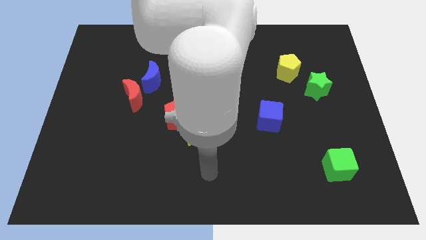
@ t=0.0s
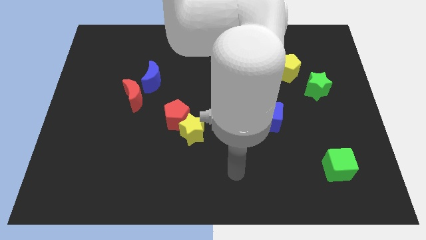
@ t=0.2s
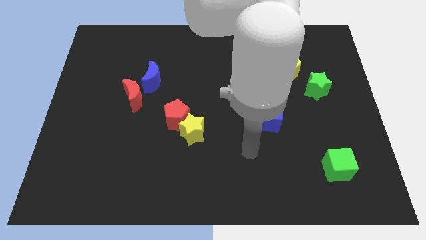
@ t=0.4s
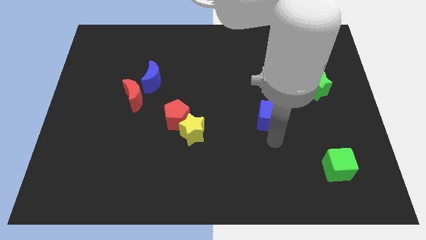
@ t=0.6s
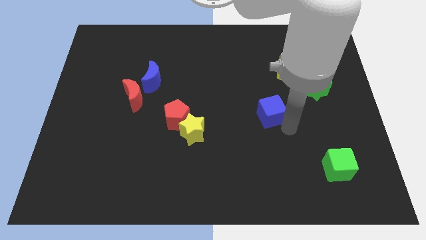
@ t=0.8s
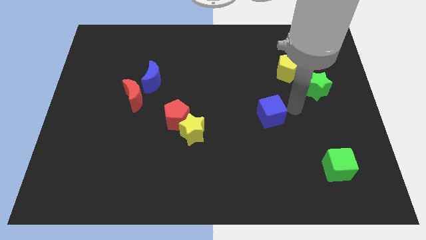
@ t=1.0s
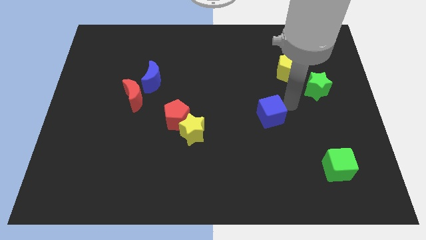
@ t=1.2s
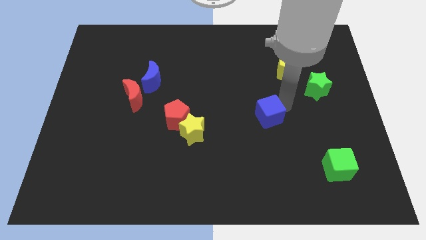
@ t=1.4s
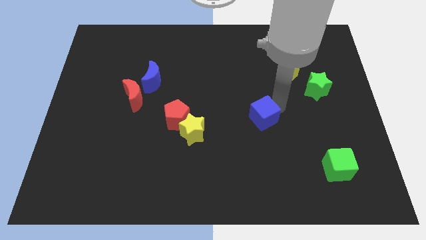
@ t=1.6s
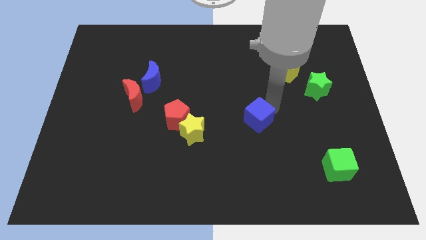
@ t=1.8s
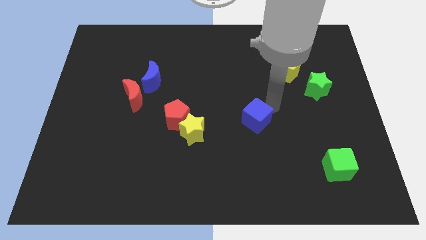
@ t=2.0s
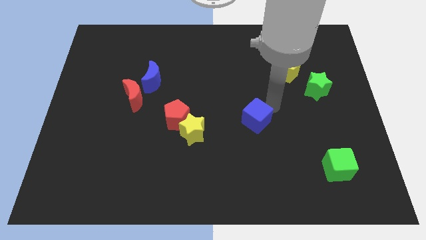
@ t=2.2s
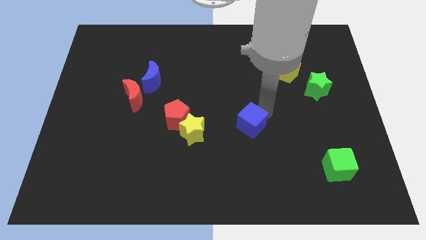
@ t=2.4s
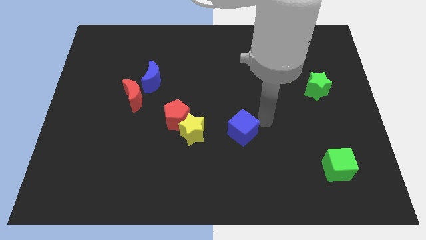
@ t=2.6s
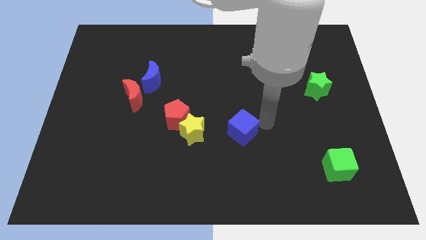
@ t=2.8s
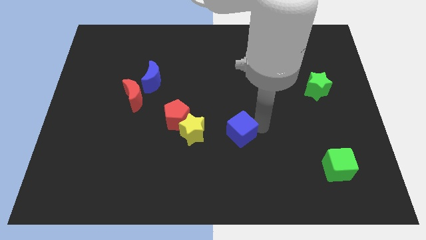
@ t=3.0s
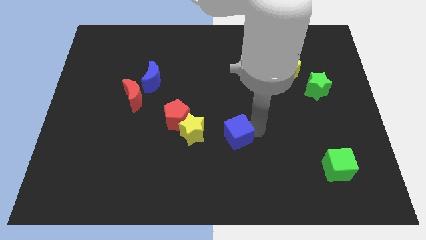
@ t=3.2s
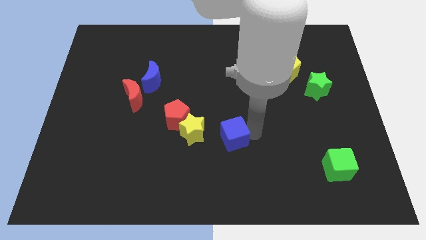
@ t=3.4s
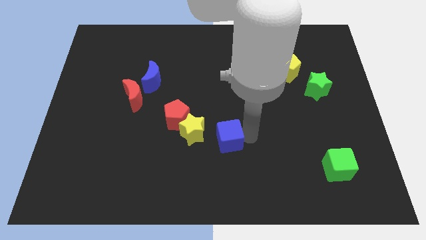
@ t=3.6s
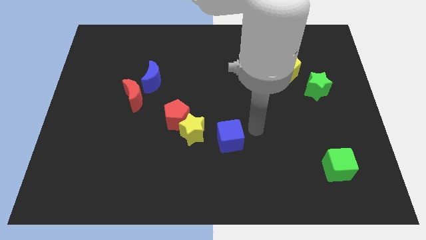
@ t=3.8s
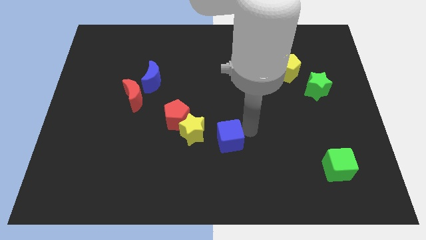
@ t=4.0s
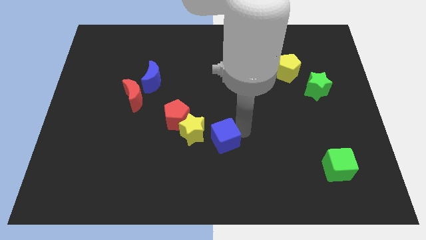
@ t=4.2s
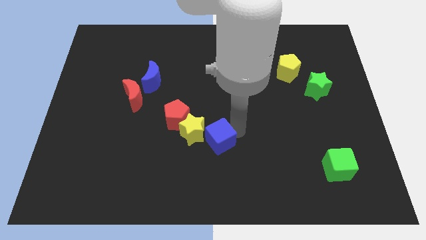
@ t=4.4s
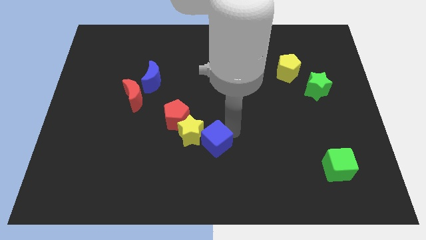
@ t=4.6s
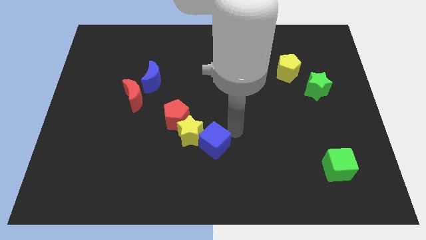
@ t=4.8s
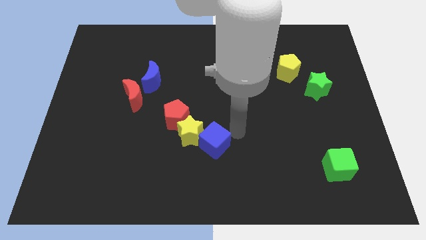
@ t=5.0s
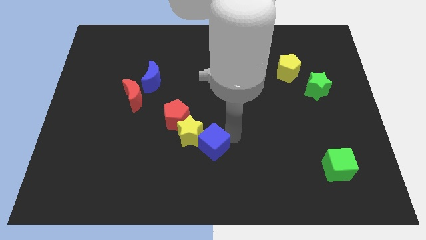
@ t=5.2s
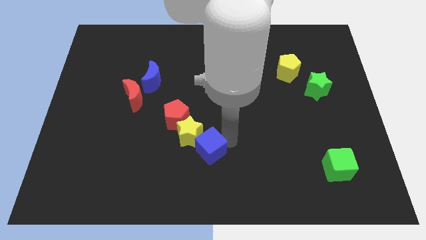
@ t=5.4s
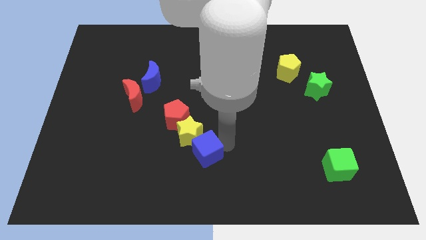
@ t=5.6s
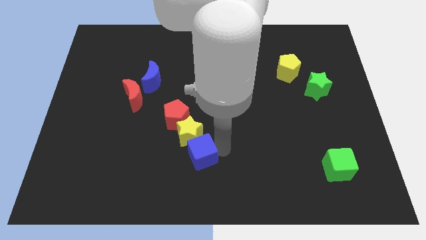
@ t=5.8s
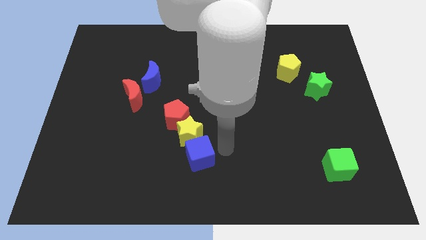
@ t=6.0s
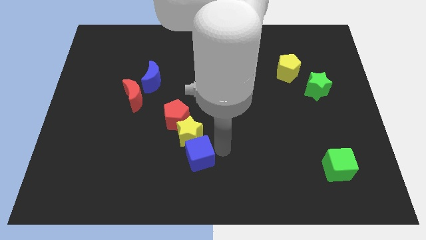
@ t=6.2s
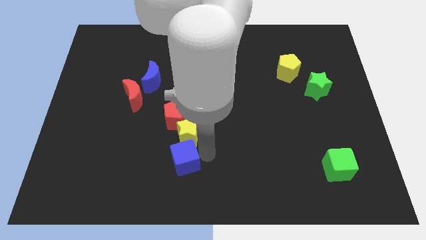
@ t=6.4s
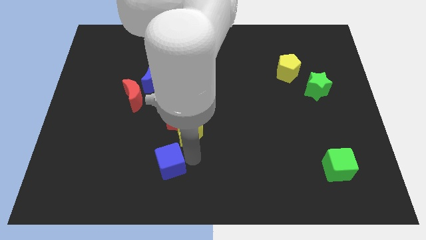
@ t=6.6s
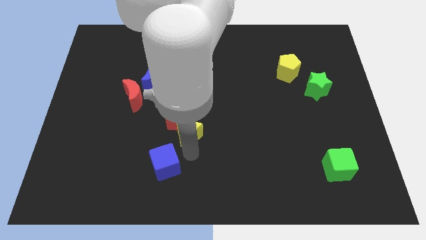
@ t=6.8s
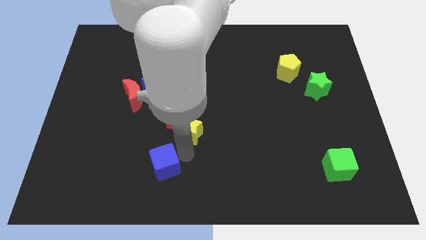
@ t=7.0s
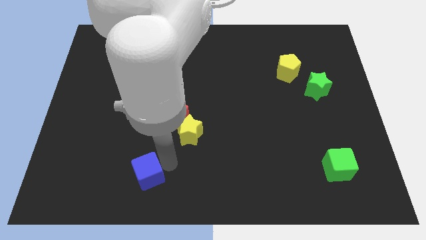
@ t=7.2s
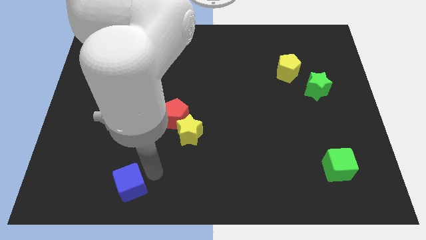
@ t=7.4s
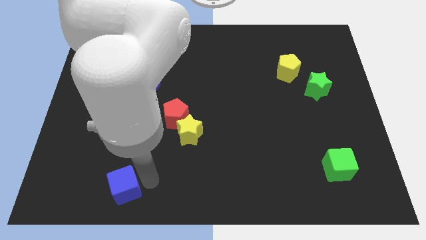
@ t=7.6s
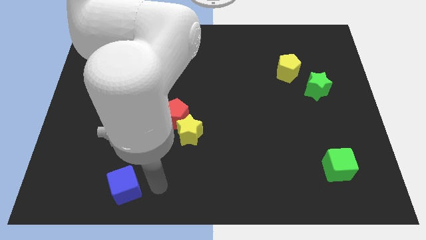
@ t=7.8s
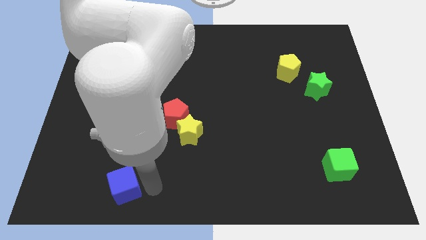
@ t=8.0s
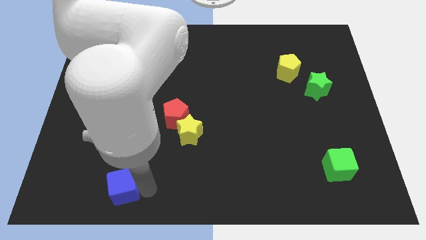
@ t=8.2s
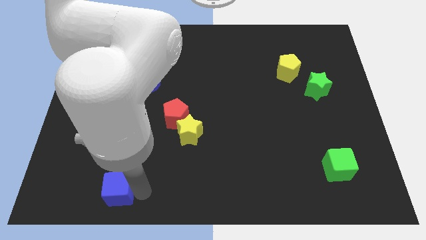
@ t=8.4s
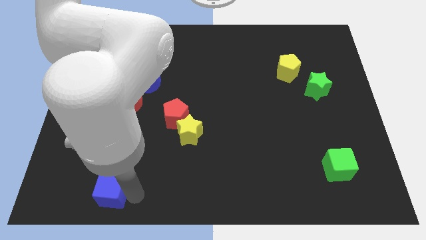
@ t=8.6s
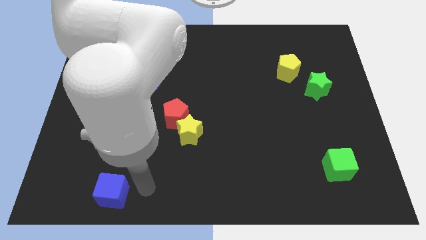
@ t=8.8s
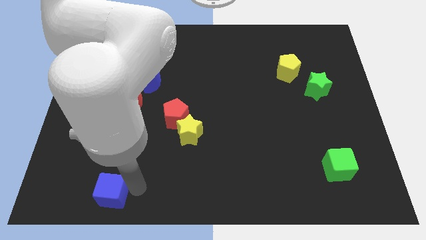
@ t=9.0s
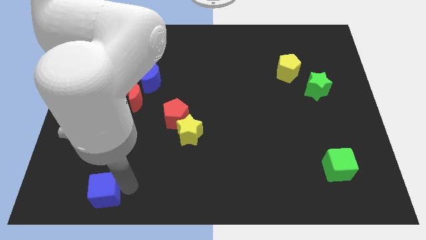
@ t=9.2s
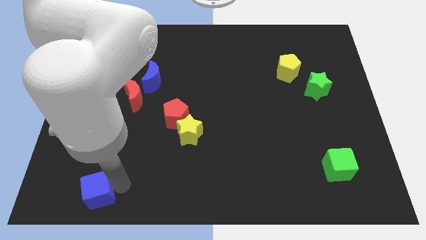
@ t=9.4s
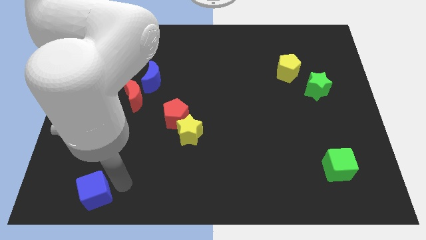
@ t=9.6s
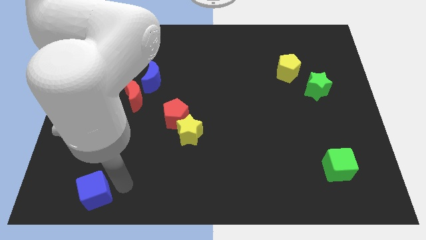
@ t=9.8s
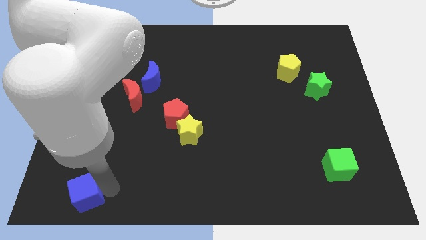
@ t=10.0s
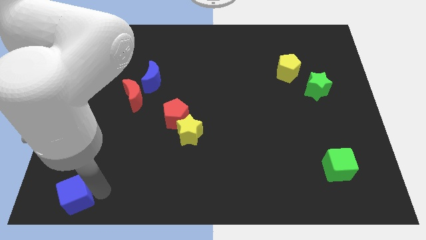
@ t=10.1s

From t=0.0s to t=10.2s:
slide the blue cube to the lower left corner

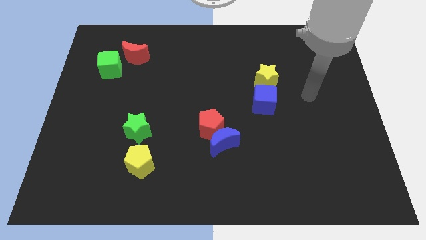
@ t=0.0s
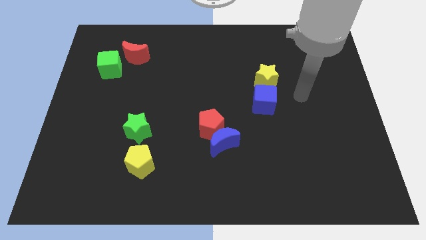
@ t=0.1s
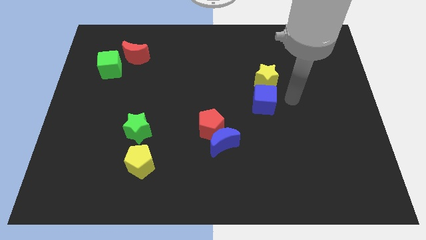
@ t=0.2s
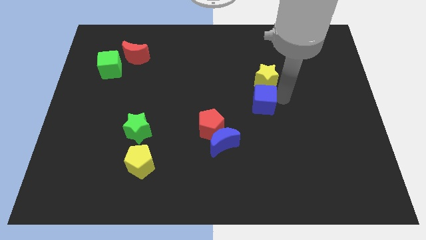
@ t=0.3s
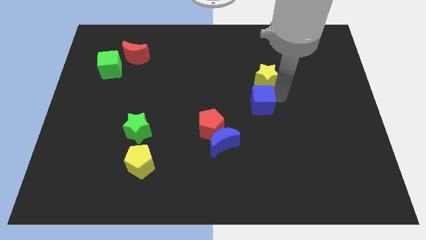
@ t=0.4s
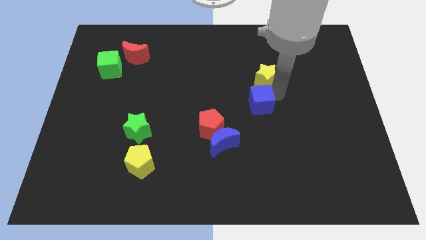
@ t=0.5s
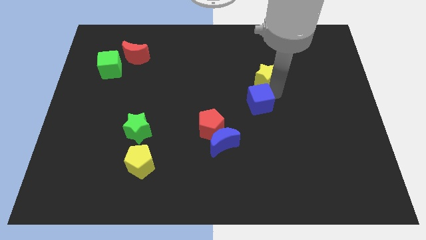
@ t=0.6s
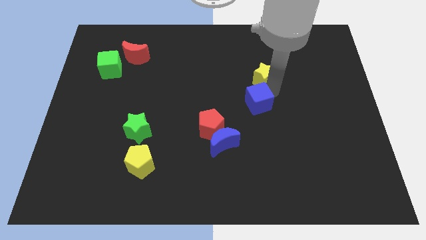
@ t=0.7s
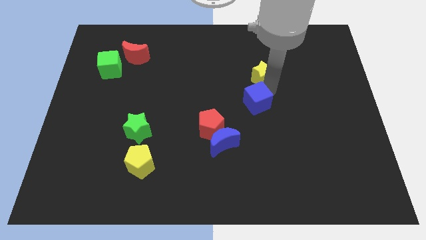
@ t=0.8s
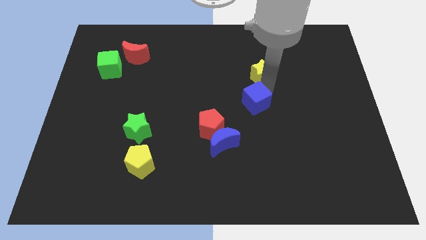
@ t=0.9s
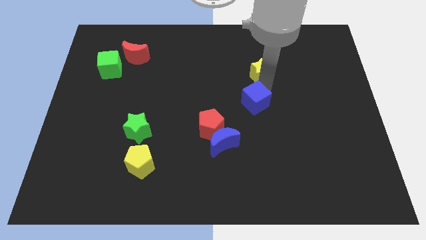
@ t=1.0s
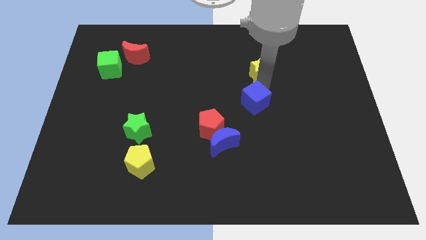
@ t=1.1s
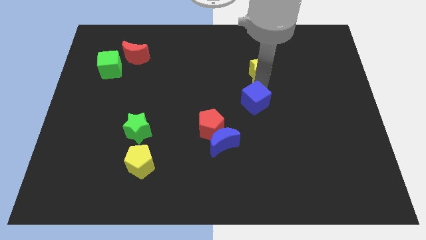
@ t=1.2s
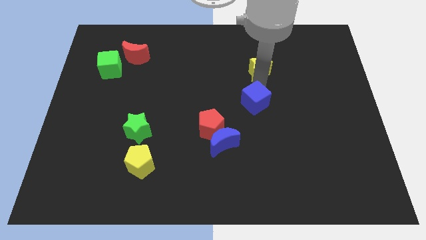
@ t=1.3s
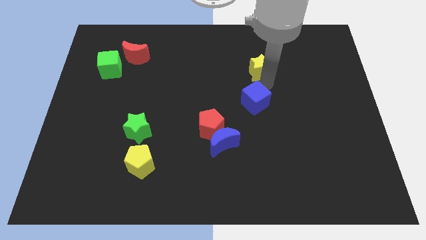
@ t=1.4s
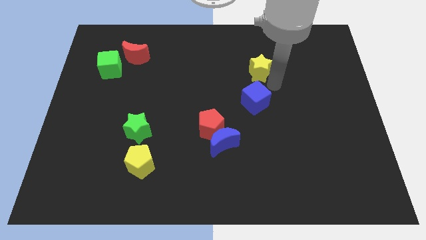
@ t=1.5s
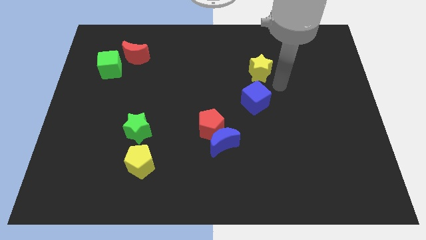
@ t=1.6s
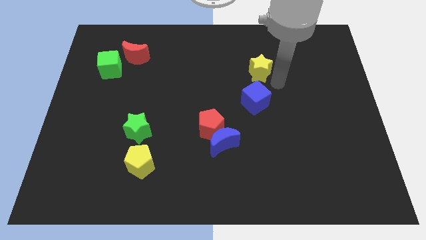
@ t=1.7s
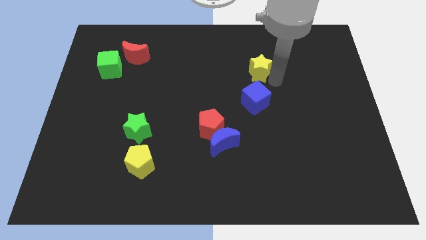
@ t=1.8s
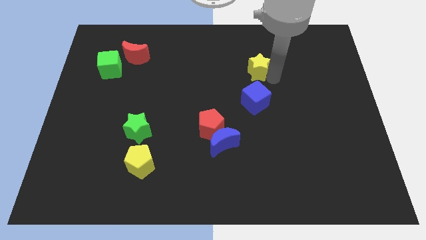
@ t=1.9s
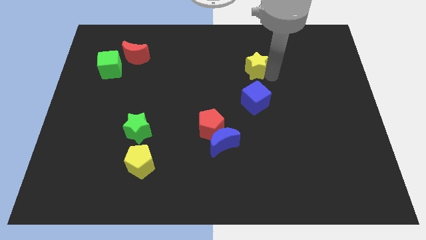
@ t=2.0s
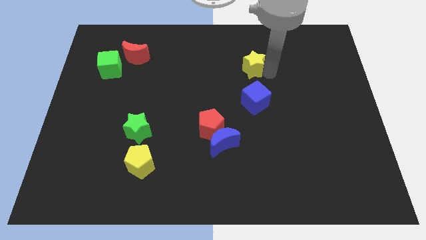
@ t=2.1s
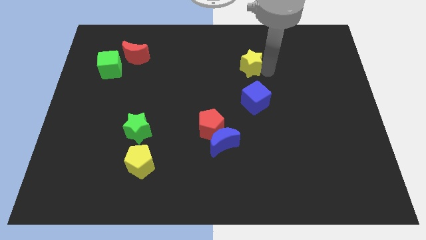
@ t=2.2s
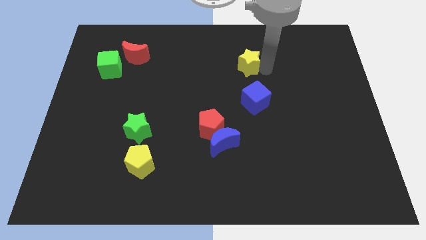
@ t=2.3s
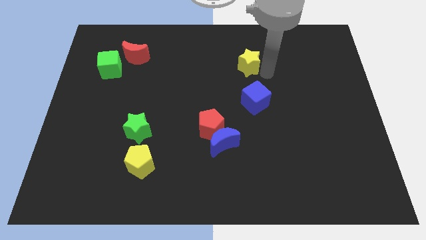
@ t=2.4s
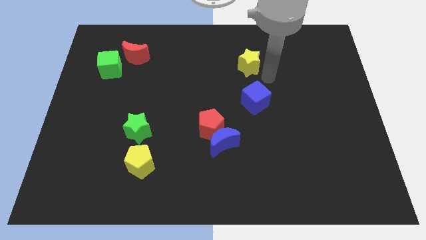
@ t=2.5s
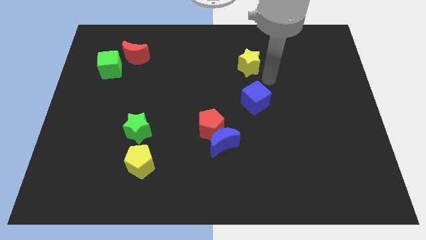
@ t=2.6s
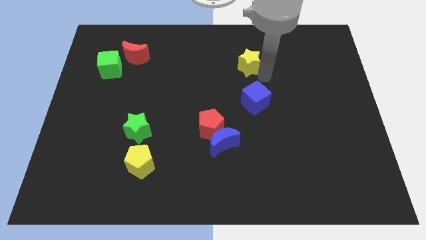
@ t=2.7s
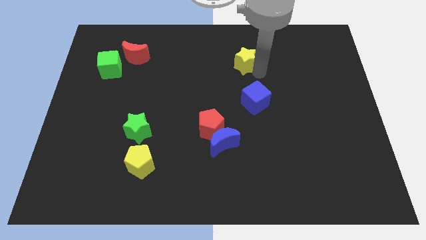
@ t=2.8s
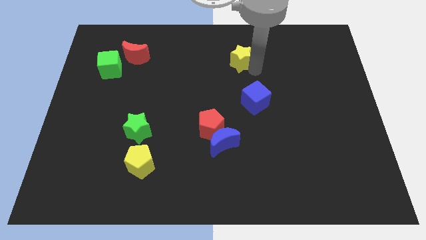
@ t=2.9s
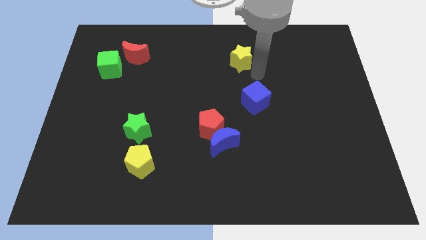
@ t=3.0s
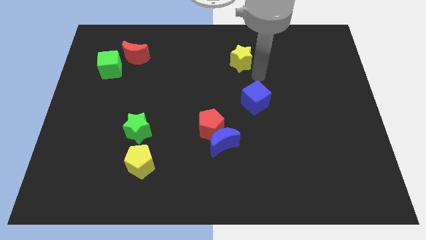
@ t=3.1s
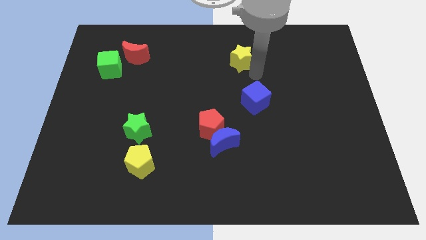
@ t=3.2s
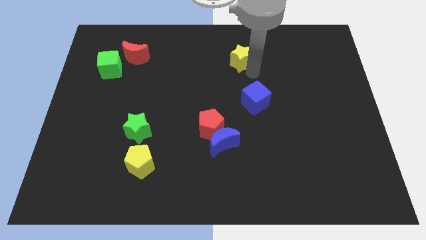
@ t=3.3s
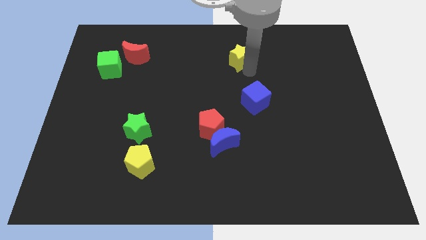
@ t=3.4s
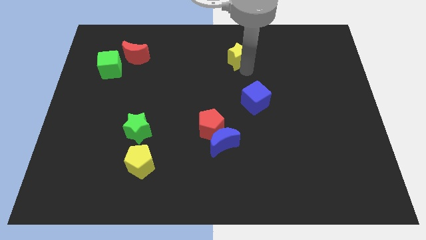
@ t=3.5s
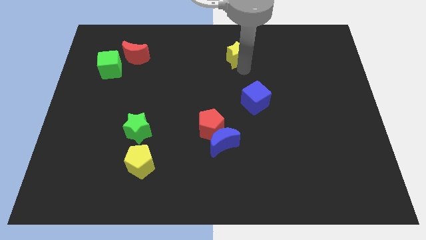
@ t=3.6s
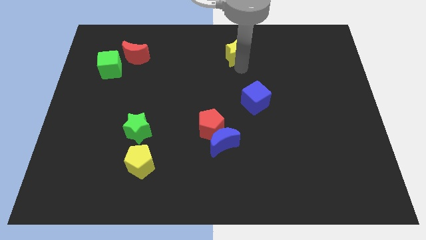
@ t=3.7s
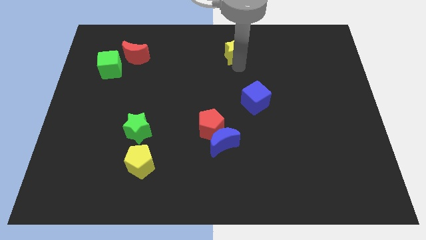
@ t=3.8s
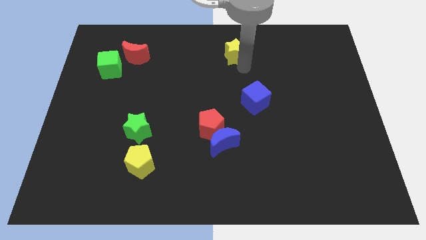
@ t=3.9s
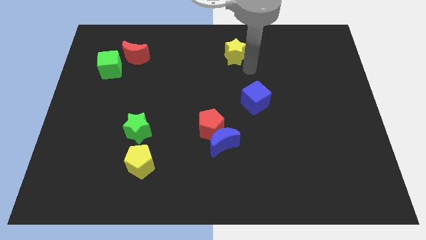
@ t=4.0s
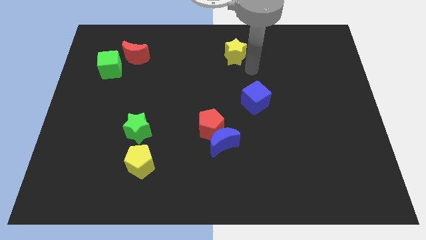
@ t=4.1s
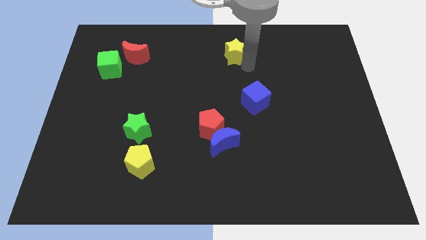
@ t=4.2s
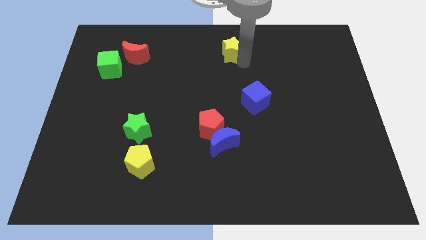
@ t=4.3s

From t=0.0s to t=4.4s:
move the yellow star to the towards your base
